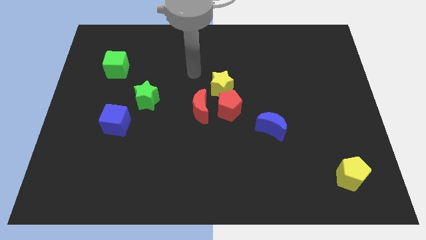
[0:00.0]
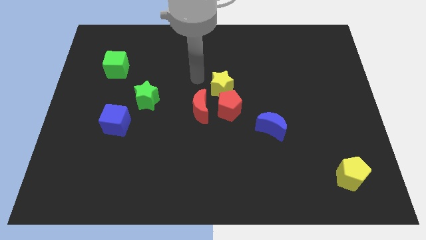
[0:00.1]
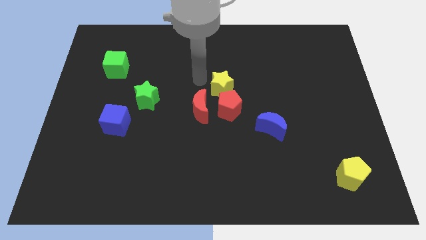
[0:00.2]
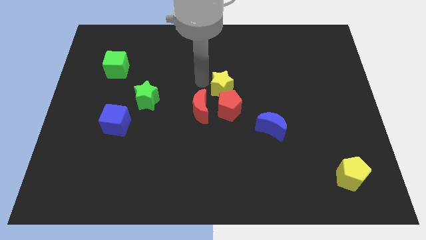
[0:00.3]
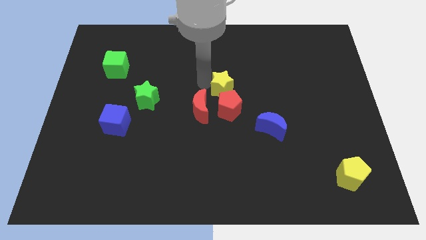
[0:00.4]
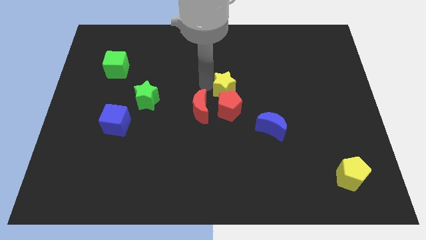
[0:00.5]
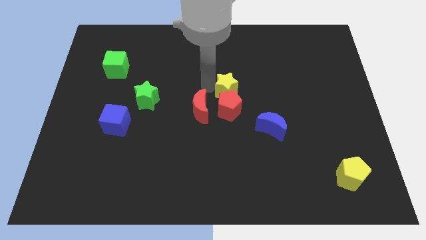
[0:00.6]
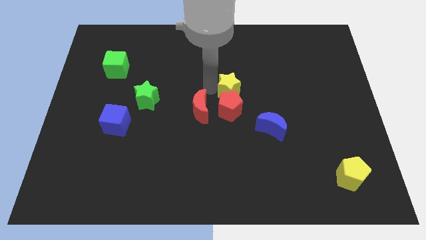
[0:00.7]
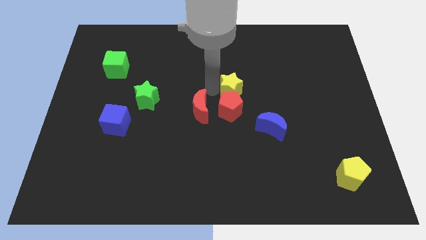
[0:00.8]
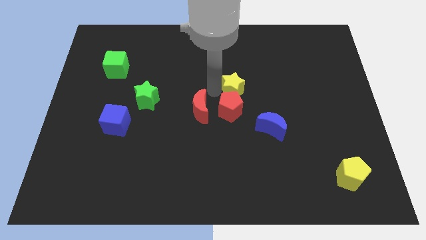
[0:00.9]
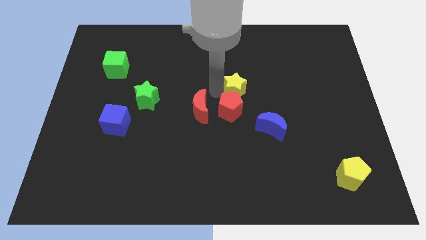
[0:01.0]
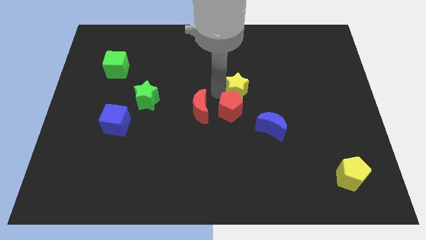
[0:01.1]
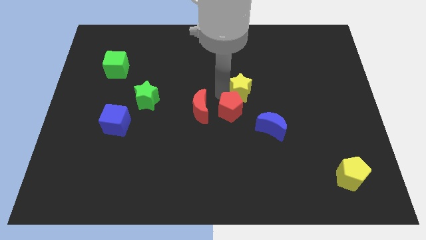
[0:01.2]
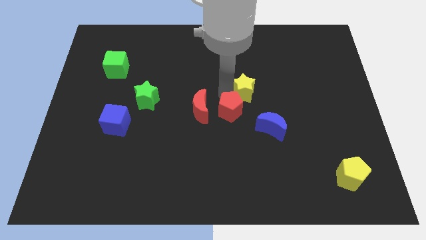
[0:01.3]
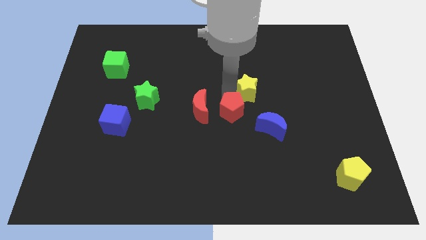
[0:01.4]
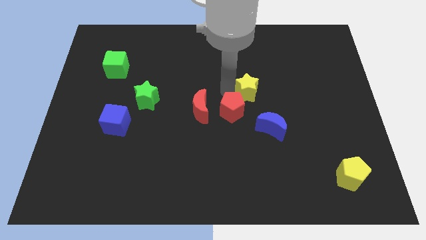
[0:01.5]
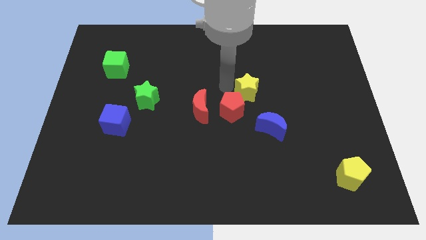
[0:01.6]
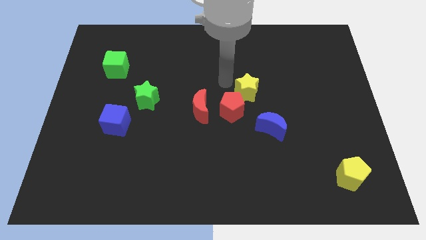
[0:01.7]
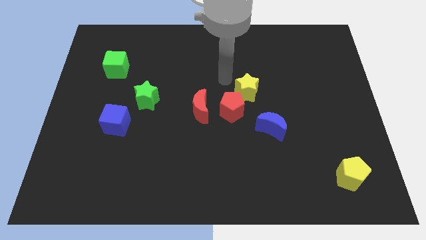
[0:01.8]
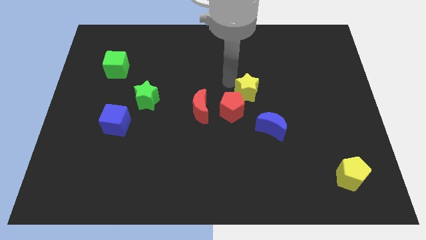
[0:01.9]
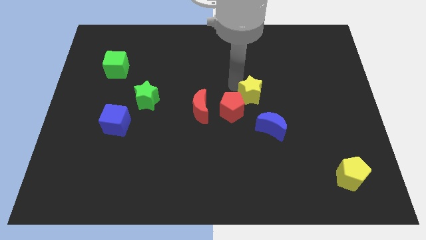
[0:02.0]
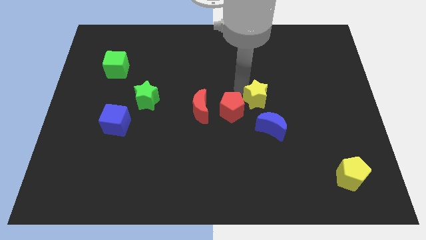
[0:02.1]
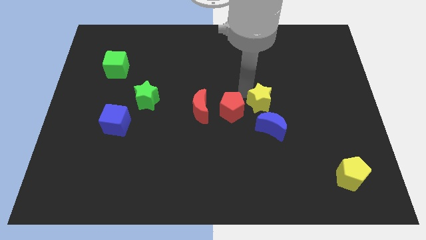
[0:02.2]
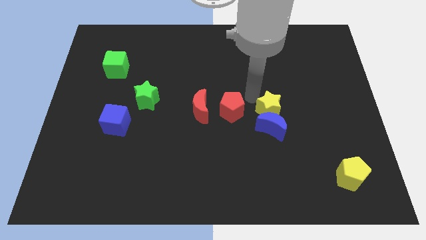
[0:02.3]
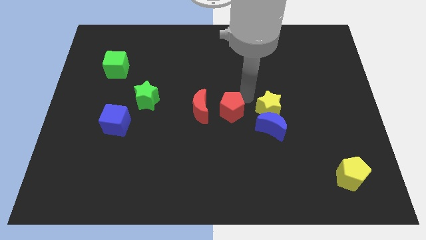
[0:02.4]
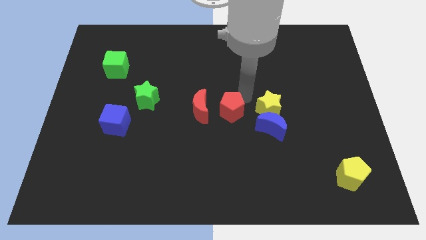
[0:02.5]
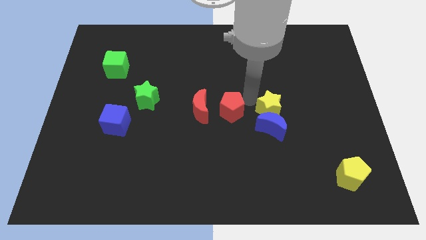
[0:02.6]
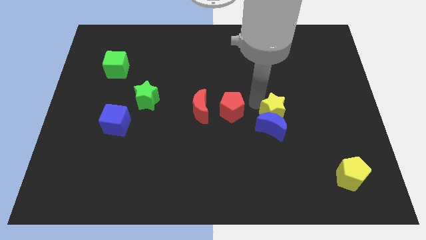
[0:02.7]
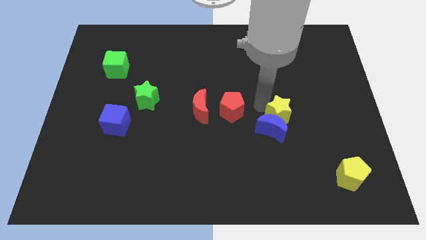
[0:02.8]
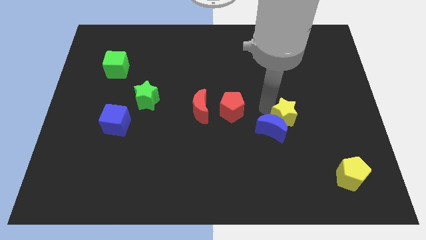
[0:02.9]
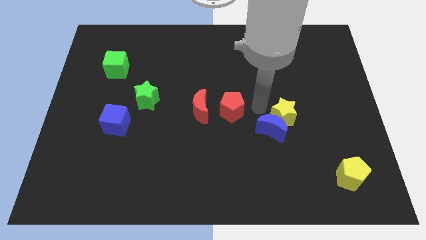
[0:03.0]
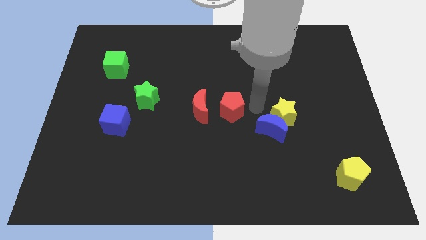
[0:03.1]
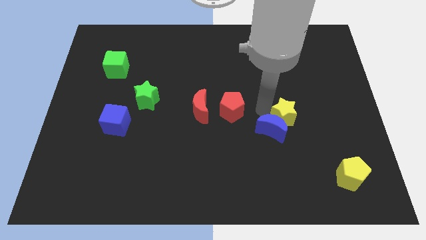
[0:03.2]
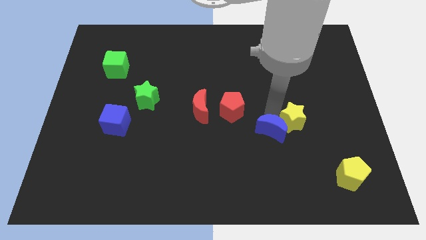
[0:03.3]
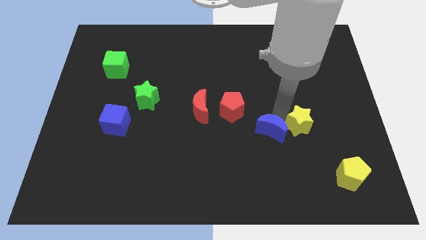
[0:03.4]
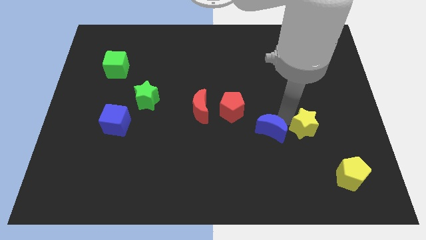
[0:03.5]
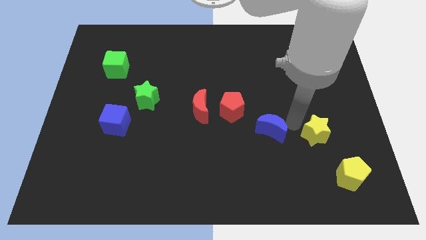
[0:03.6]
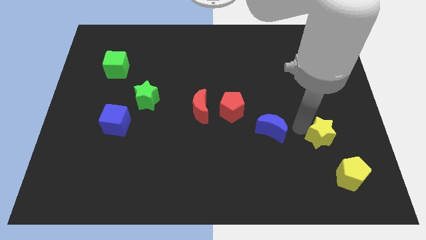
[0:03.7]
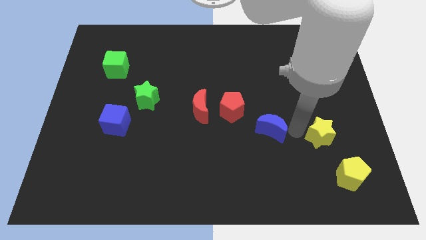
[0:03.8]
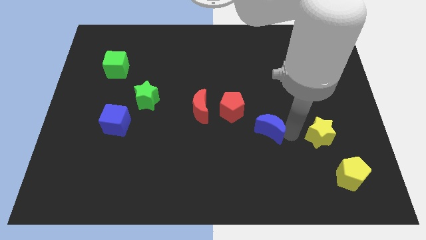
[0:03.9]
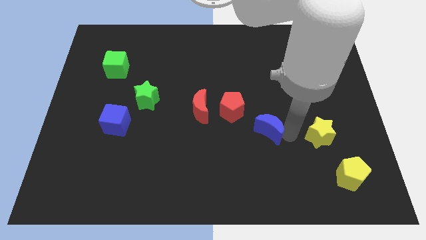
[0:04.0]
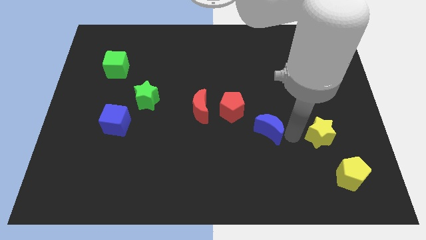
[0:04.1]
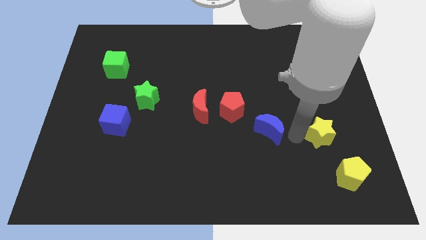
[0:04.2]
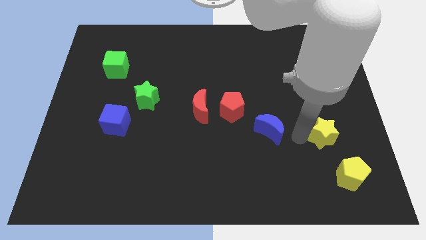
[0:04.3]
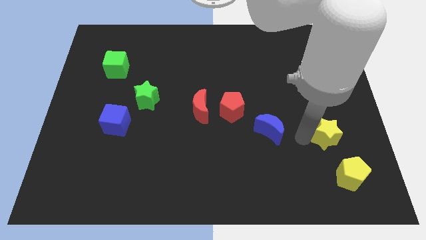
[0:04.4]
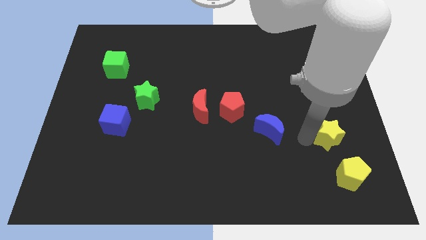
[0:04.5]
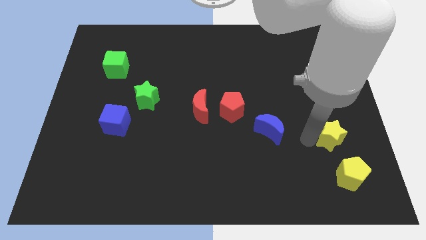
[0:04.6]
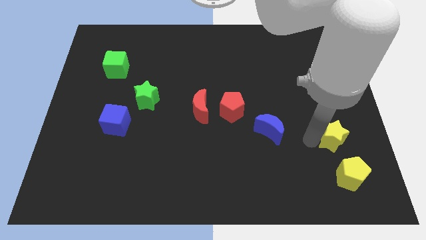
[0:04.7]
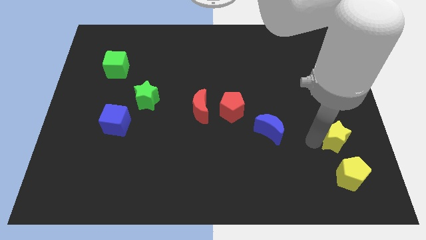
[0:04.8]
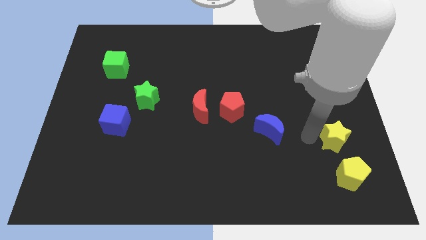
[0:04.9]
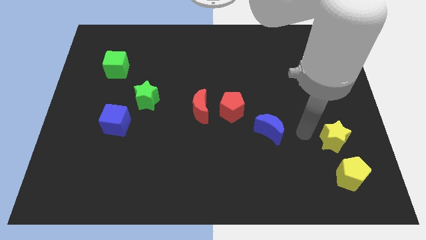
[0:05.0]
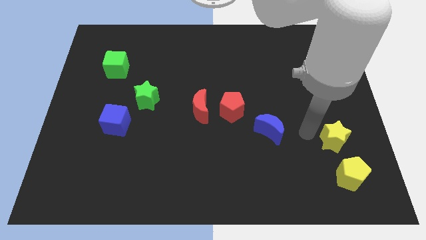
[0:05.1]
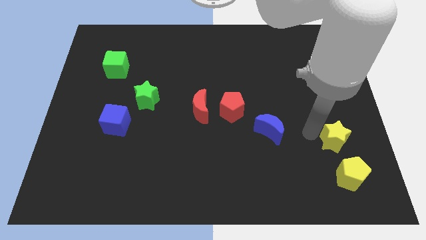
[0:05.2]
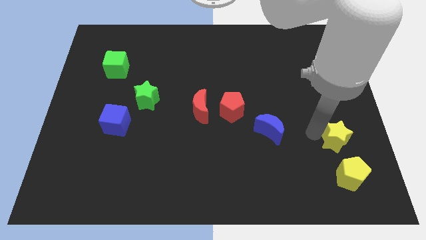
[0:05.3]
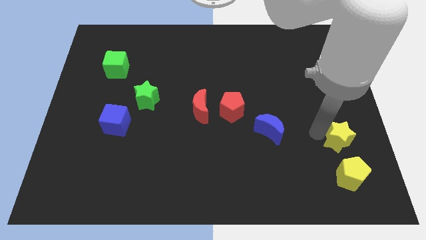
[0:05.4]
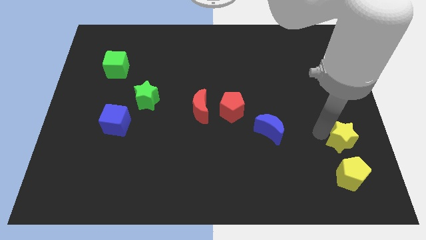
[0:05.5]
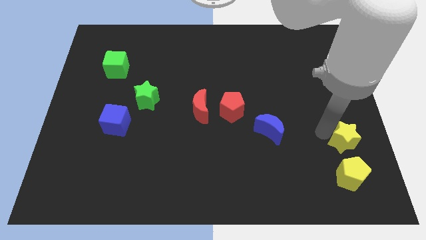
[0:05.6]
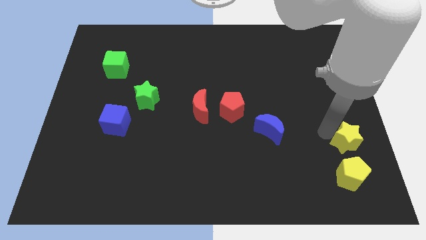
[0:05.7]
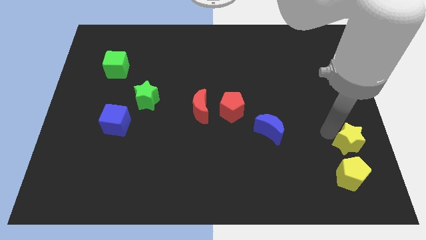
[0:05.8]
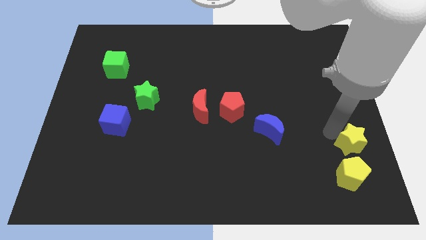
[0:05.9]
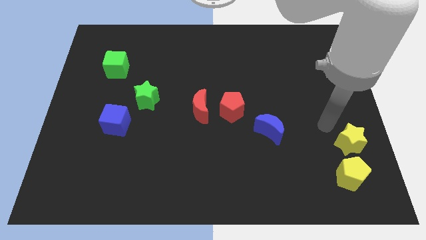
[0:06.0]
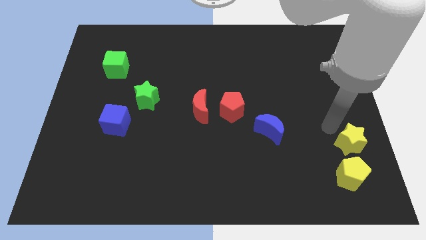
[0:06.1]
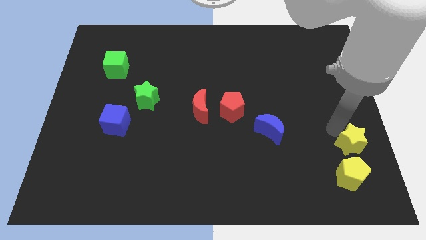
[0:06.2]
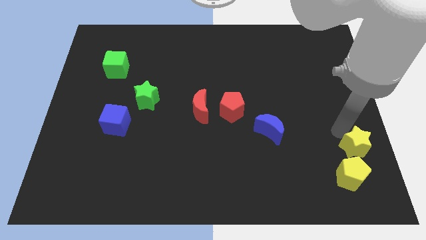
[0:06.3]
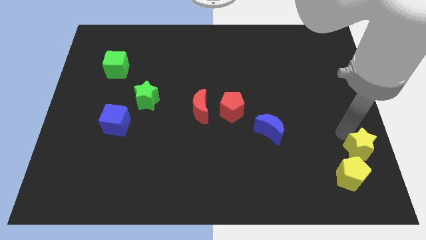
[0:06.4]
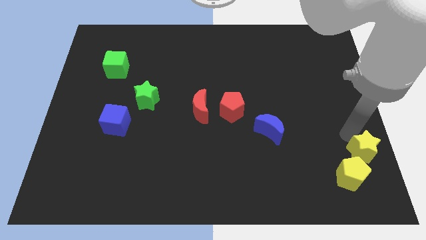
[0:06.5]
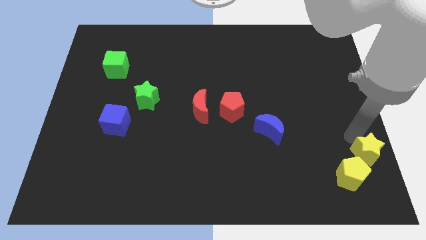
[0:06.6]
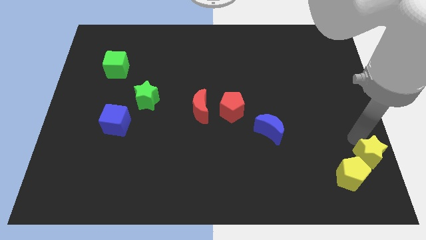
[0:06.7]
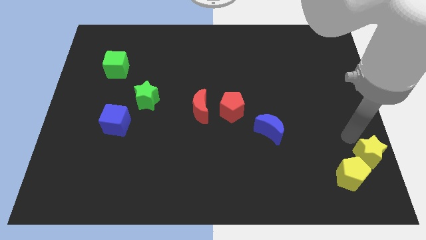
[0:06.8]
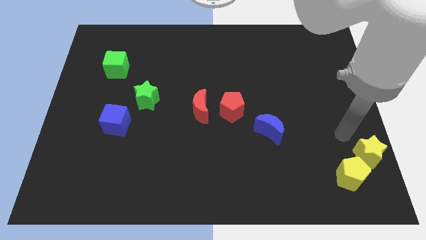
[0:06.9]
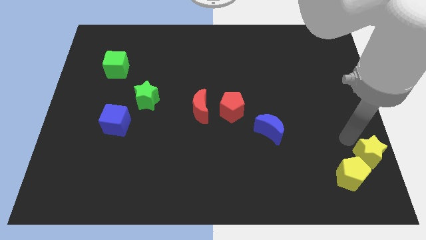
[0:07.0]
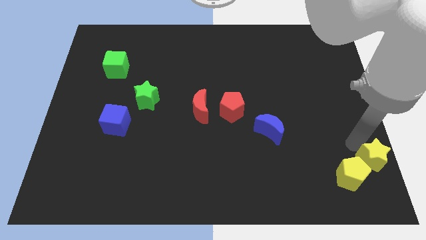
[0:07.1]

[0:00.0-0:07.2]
push the yellow star to the lower right corner
